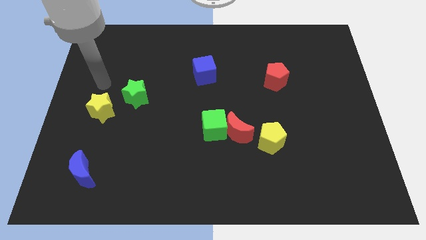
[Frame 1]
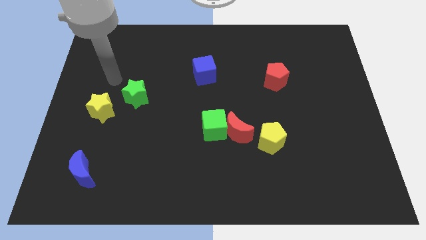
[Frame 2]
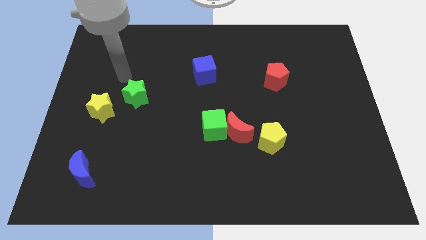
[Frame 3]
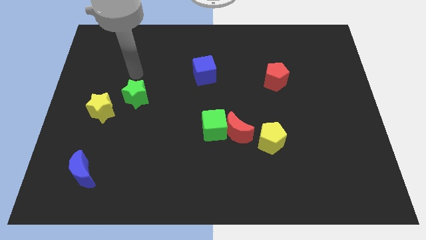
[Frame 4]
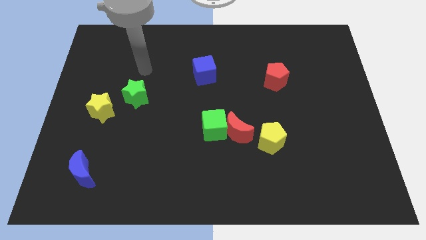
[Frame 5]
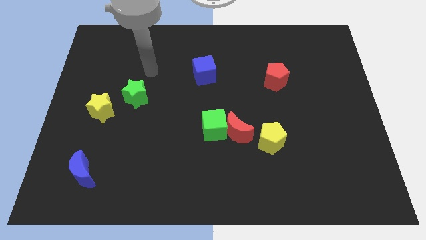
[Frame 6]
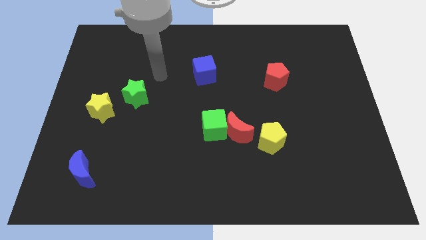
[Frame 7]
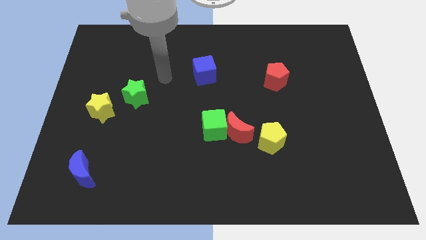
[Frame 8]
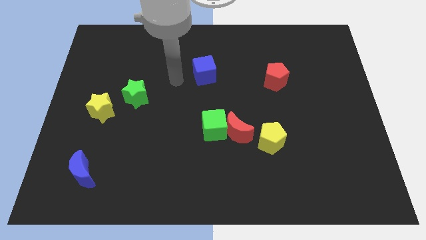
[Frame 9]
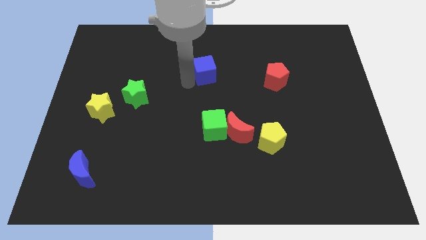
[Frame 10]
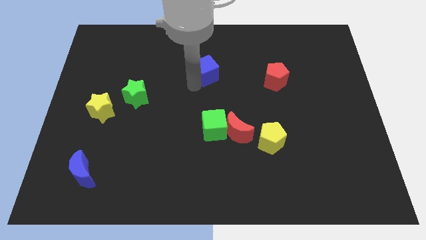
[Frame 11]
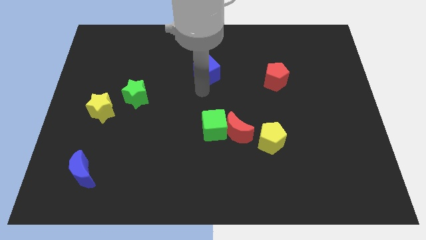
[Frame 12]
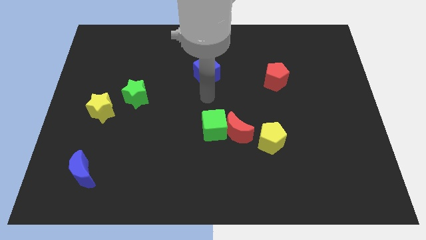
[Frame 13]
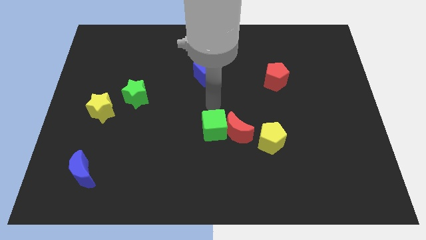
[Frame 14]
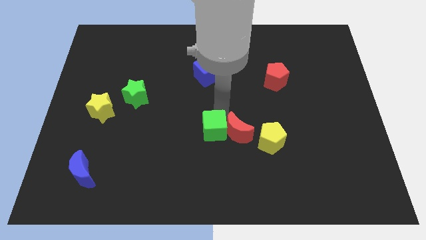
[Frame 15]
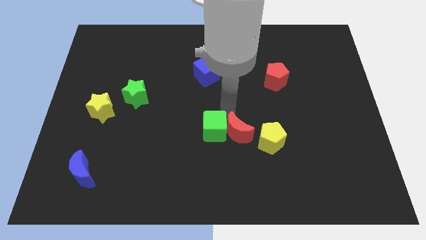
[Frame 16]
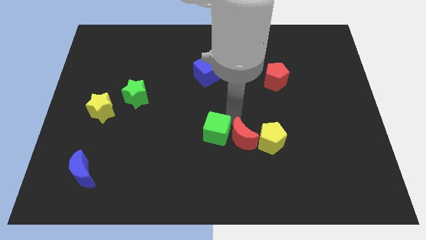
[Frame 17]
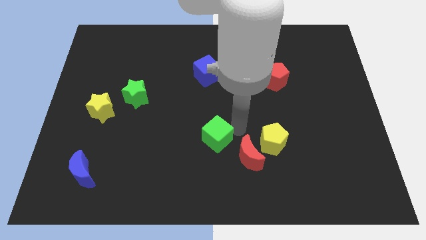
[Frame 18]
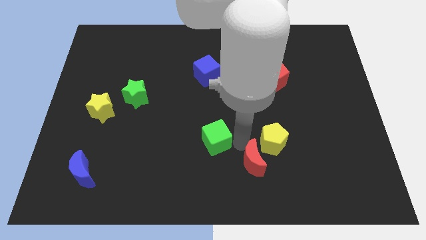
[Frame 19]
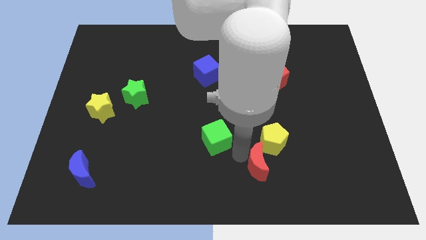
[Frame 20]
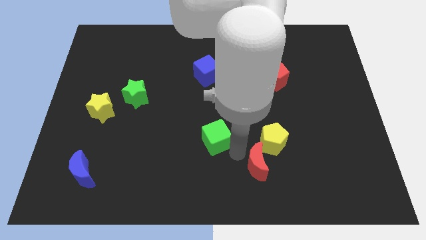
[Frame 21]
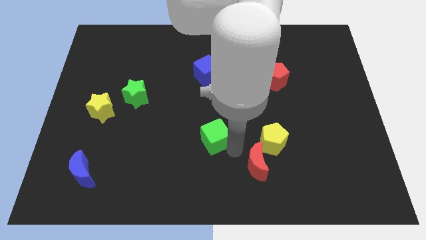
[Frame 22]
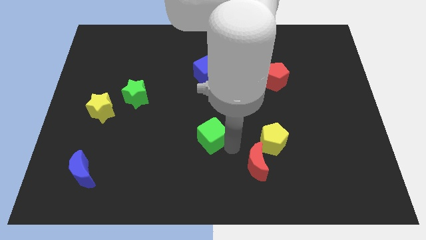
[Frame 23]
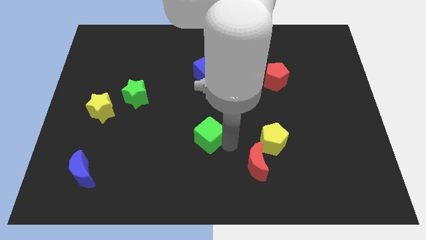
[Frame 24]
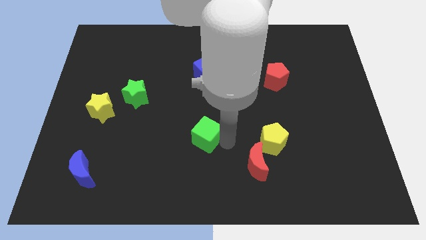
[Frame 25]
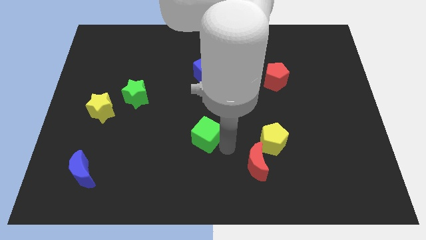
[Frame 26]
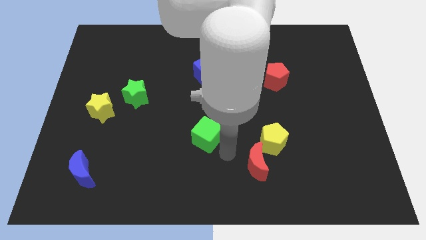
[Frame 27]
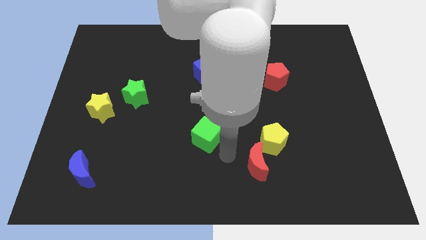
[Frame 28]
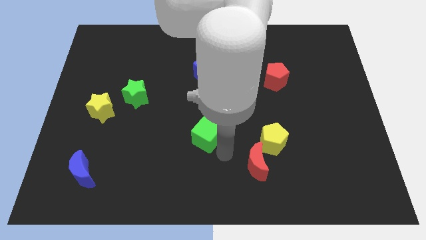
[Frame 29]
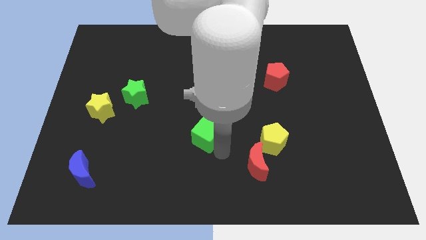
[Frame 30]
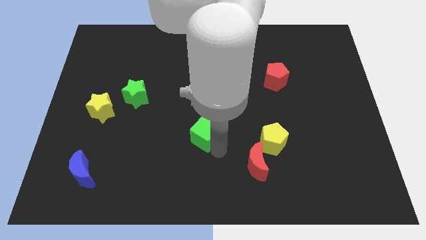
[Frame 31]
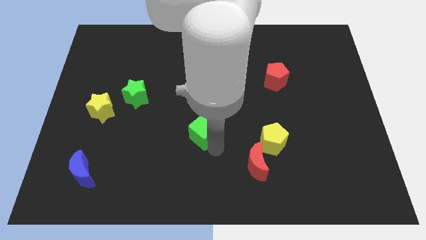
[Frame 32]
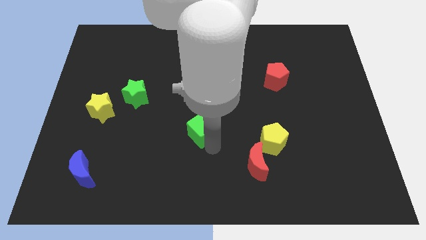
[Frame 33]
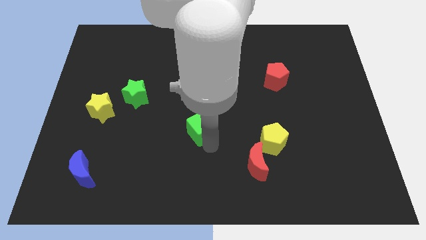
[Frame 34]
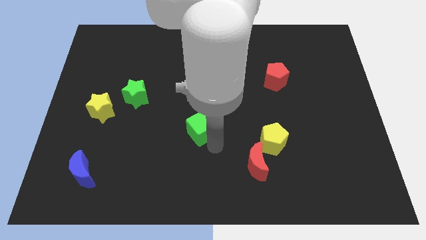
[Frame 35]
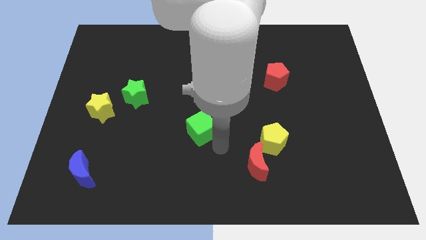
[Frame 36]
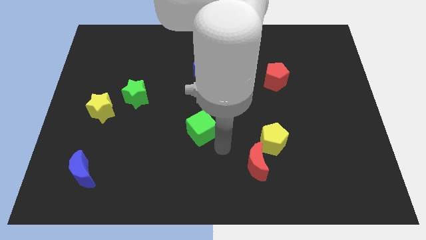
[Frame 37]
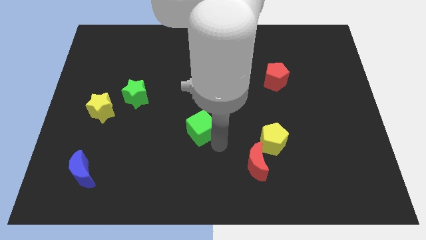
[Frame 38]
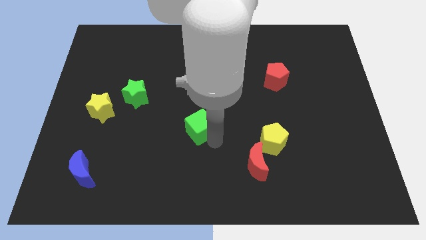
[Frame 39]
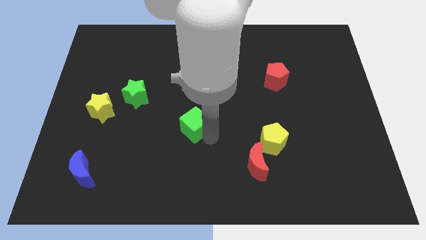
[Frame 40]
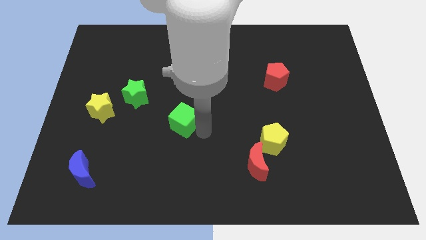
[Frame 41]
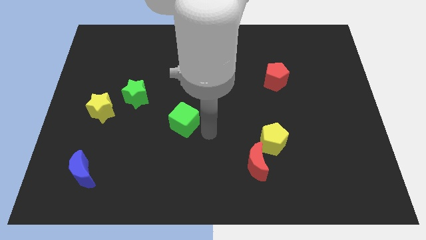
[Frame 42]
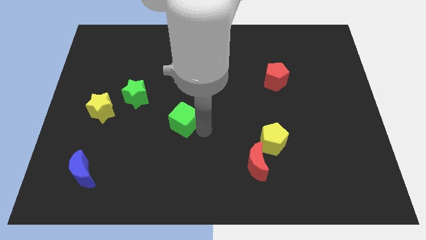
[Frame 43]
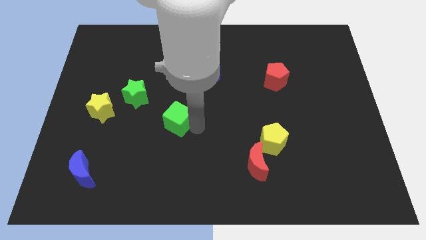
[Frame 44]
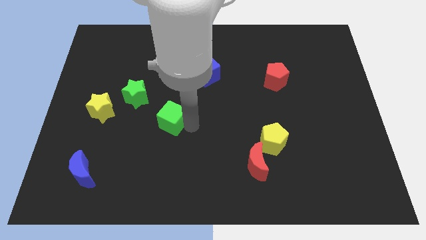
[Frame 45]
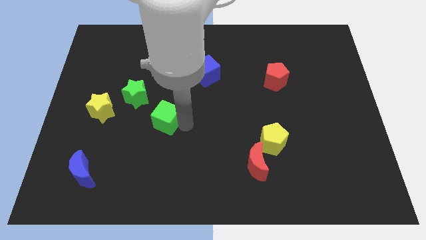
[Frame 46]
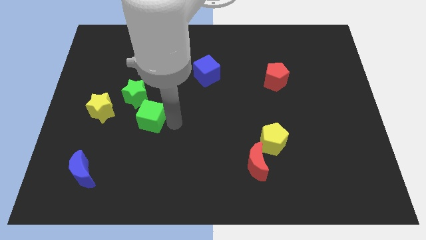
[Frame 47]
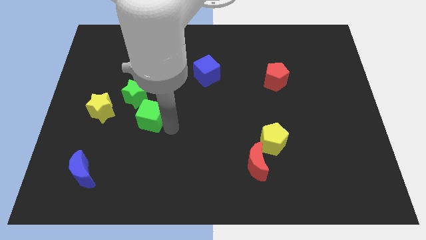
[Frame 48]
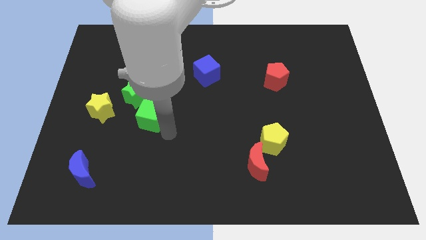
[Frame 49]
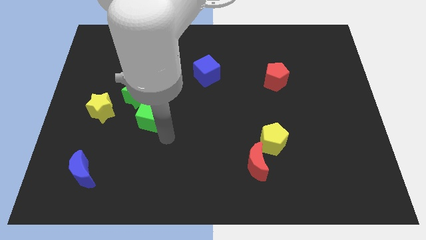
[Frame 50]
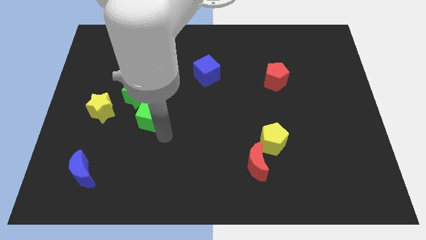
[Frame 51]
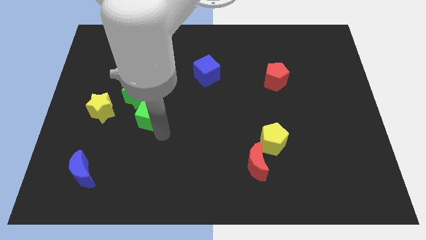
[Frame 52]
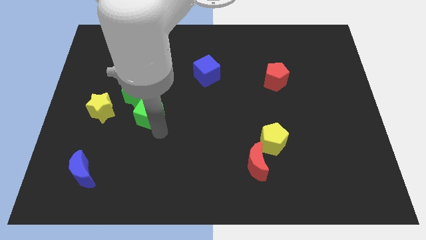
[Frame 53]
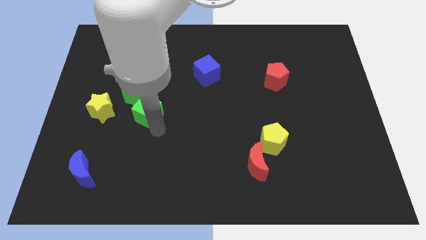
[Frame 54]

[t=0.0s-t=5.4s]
push the green cube next to the green star
